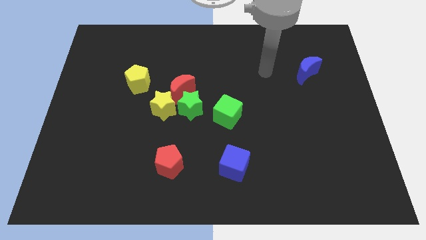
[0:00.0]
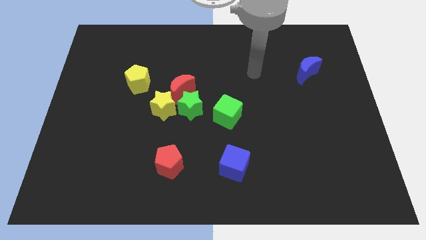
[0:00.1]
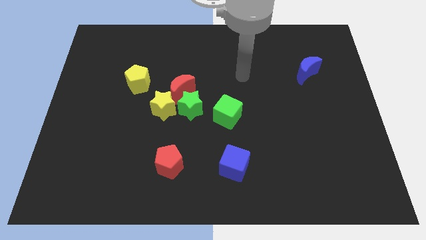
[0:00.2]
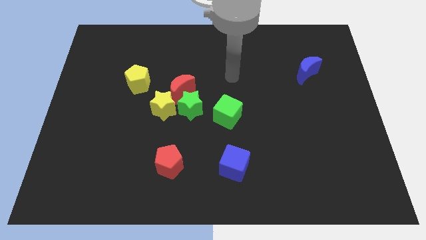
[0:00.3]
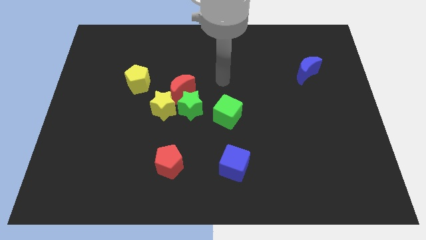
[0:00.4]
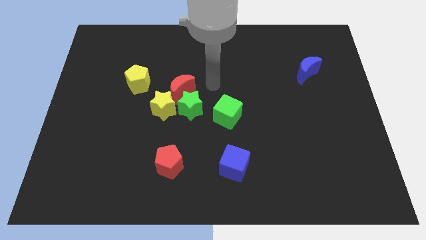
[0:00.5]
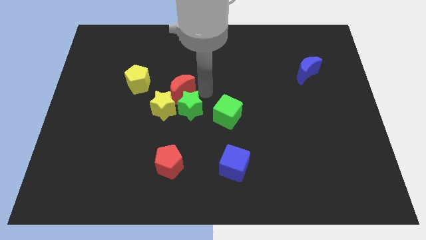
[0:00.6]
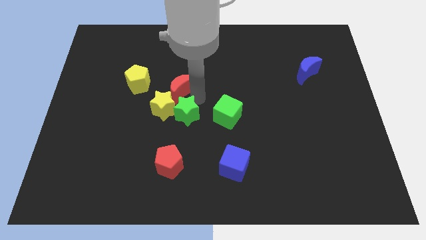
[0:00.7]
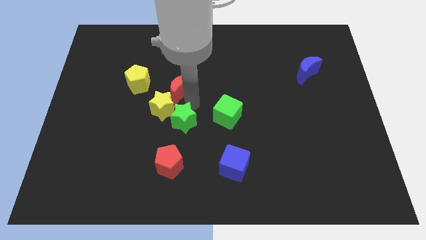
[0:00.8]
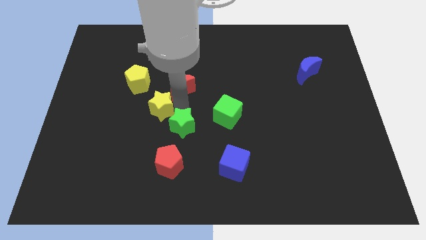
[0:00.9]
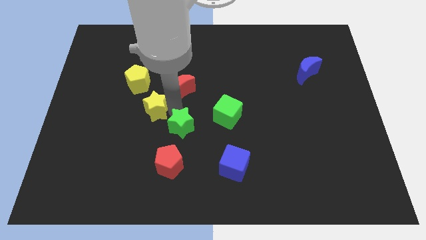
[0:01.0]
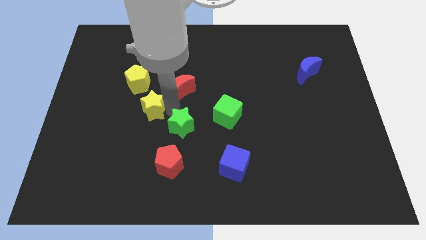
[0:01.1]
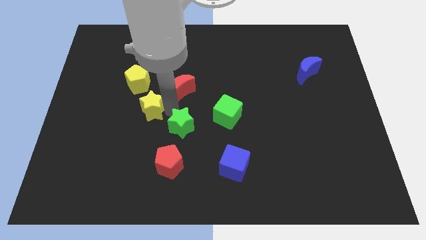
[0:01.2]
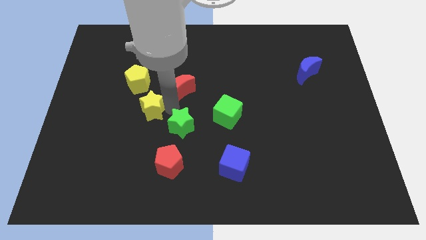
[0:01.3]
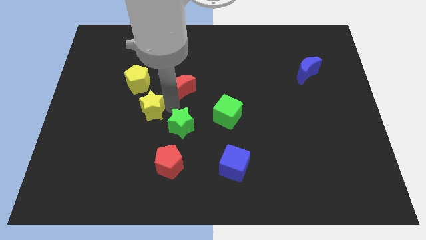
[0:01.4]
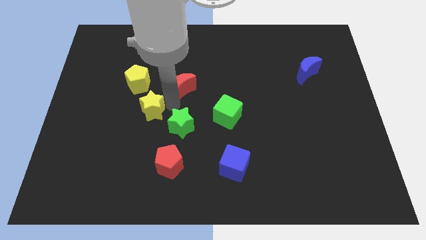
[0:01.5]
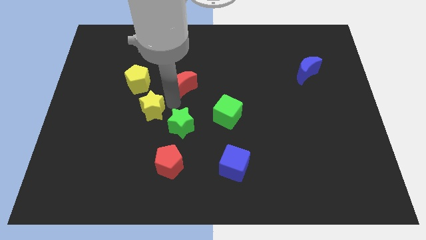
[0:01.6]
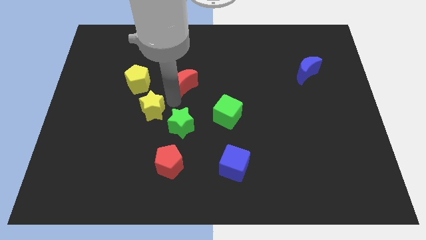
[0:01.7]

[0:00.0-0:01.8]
pull the red moon apart from the green star and yellow star

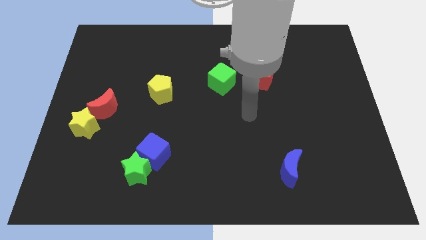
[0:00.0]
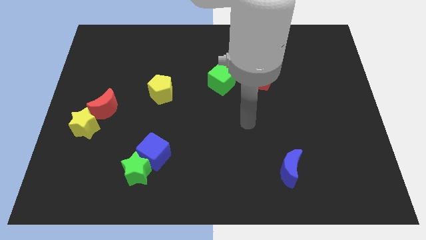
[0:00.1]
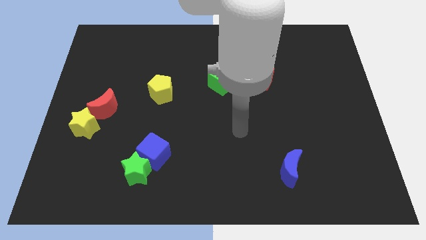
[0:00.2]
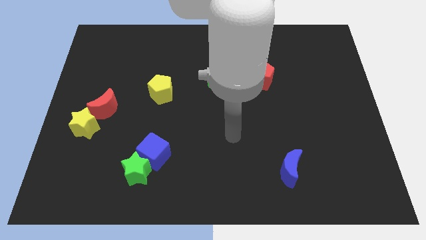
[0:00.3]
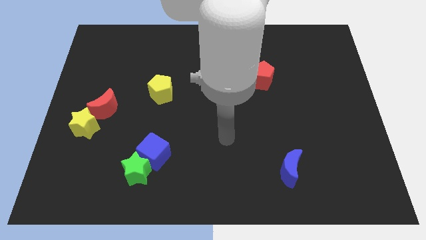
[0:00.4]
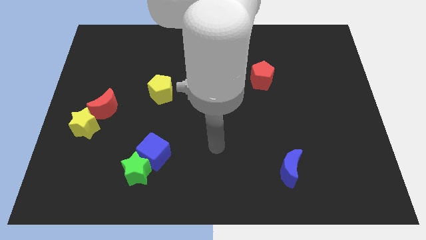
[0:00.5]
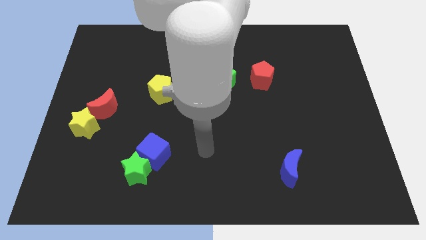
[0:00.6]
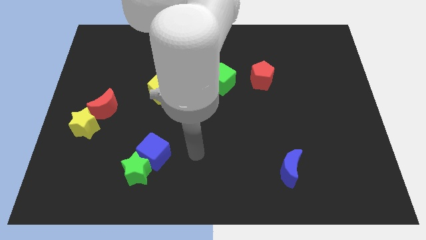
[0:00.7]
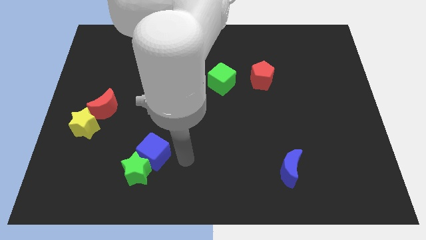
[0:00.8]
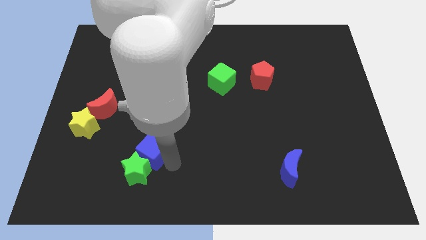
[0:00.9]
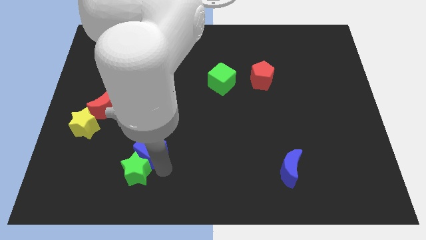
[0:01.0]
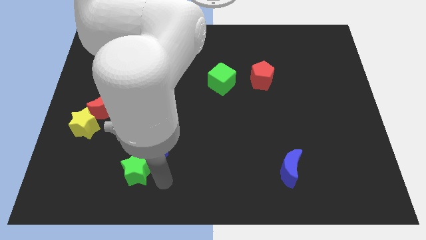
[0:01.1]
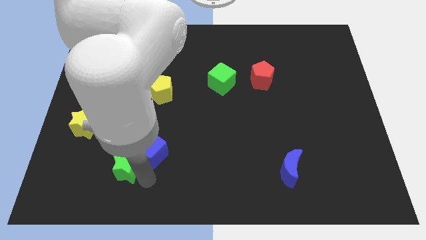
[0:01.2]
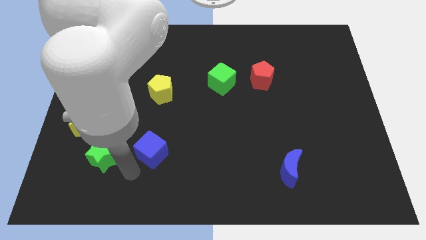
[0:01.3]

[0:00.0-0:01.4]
pull the blue cube apart from the green star

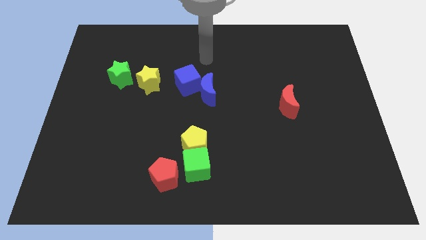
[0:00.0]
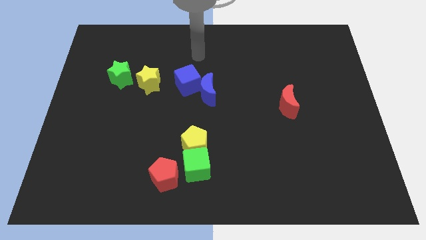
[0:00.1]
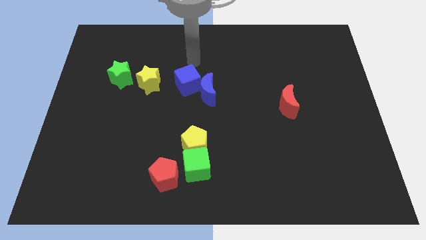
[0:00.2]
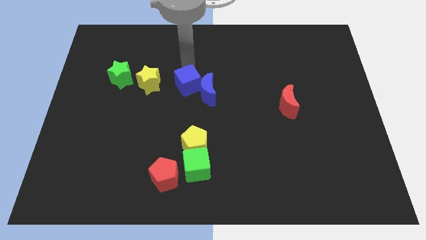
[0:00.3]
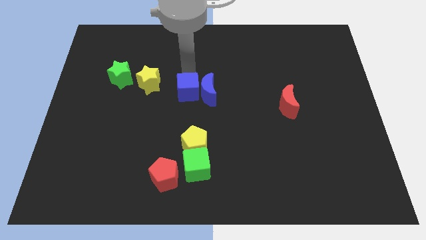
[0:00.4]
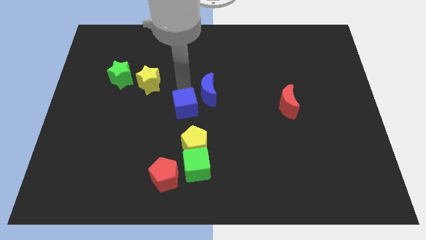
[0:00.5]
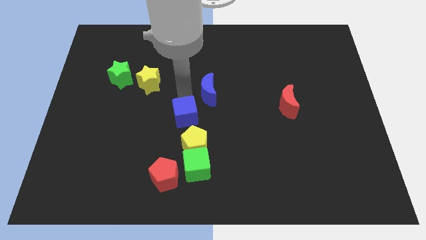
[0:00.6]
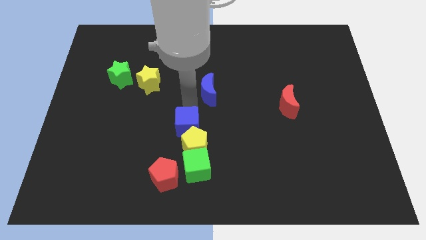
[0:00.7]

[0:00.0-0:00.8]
separate the blue moon from the blue cube

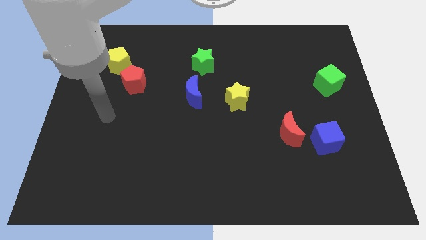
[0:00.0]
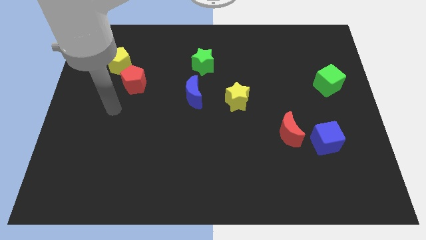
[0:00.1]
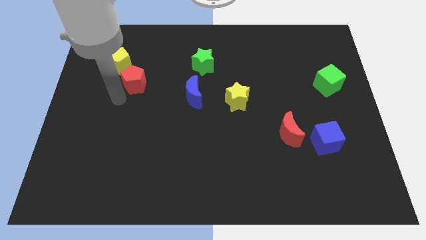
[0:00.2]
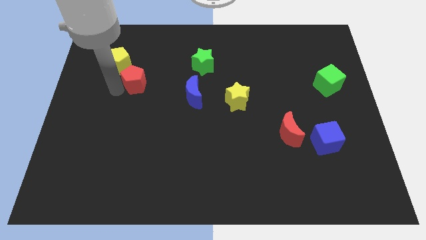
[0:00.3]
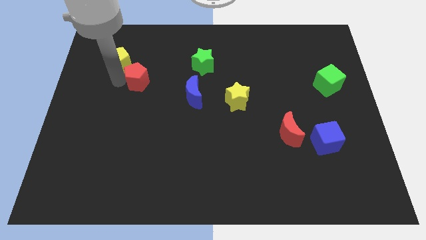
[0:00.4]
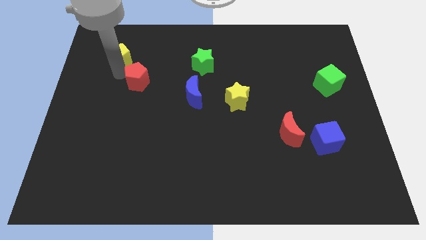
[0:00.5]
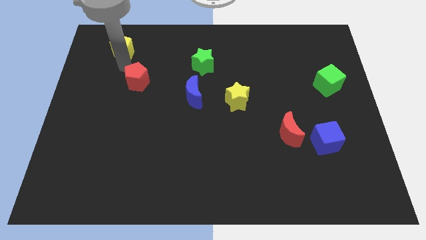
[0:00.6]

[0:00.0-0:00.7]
separate the red pentagon from the yellow pentagon

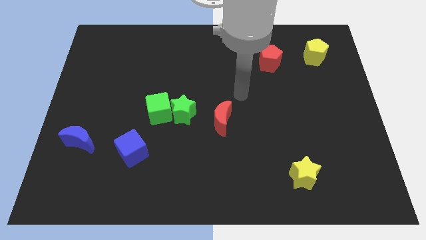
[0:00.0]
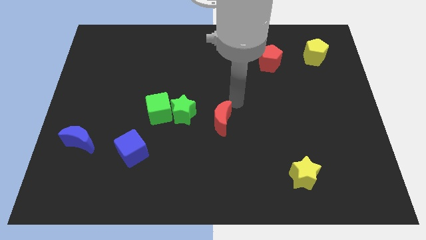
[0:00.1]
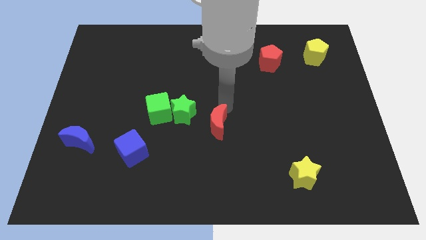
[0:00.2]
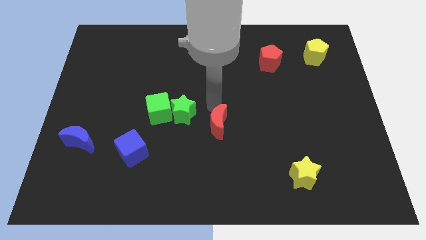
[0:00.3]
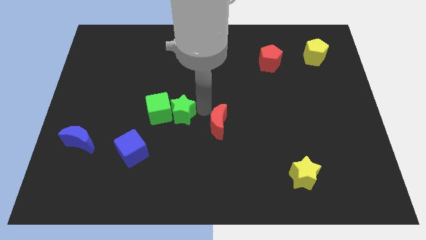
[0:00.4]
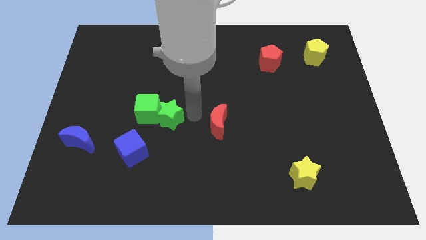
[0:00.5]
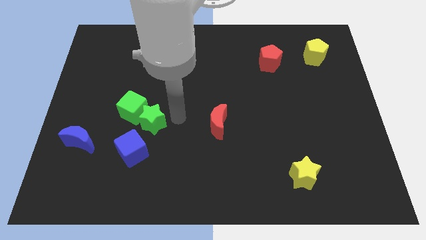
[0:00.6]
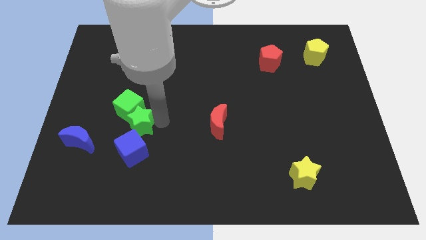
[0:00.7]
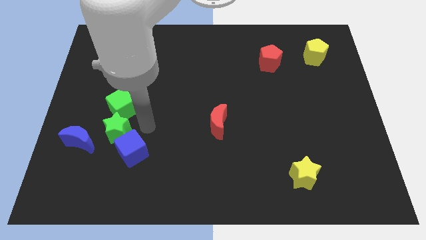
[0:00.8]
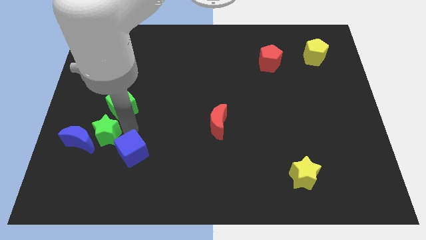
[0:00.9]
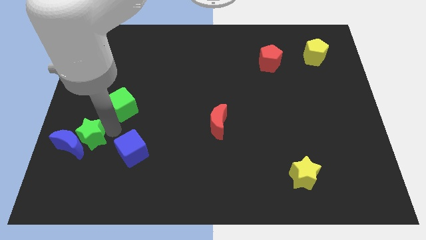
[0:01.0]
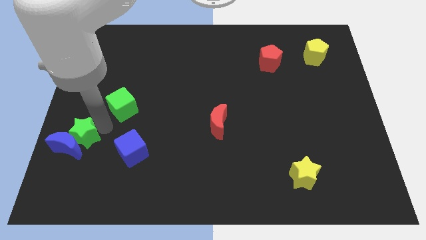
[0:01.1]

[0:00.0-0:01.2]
separate the green cube from the green star

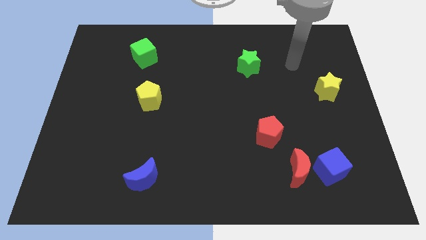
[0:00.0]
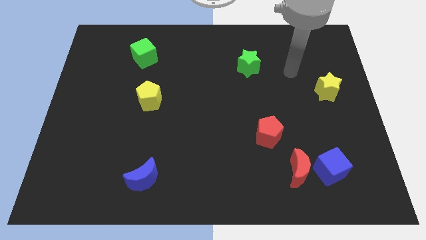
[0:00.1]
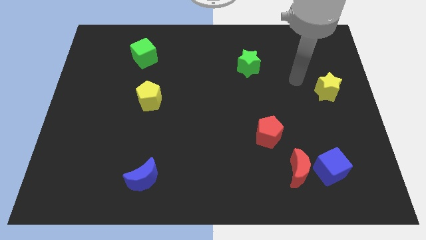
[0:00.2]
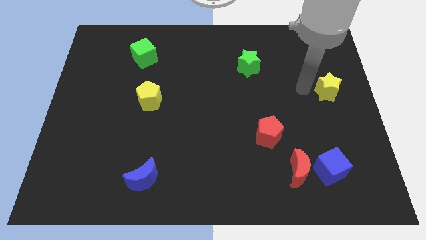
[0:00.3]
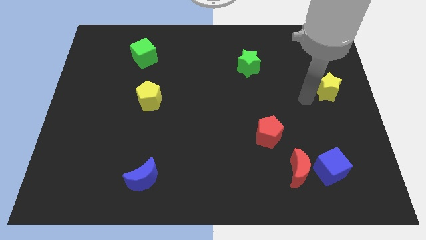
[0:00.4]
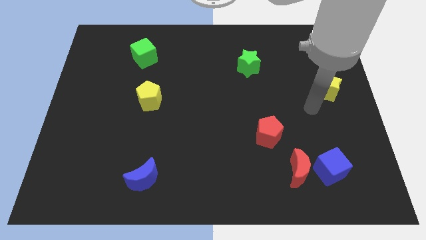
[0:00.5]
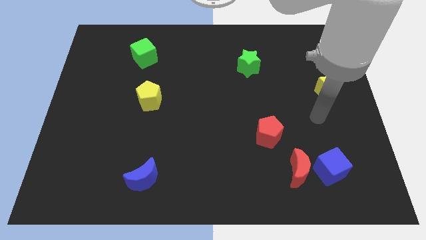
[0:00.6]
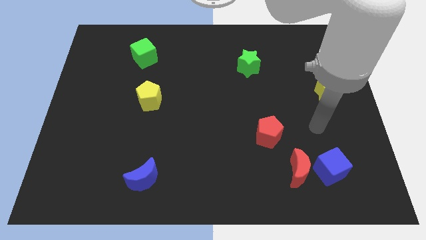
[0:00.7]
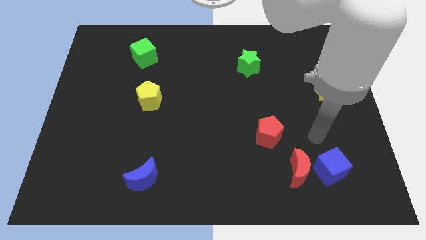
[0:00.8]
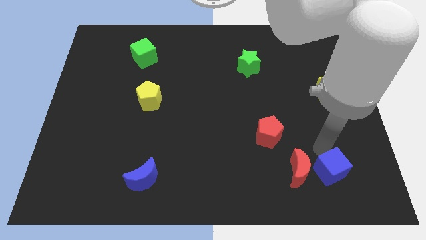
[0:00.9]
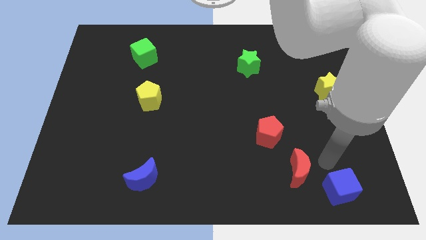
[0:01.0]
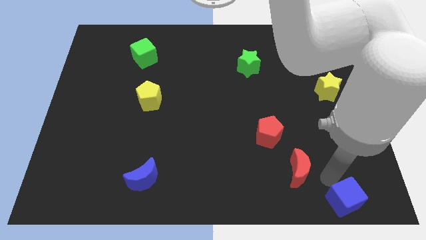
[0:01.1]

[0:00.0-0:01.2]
pull the red moon apart from the blue cube

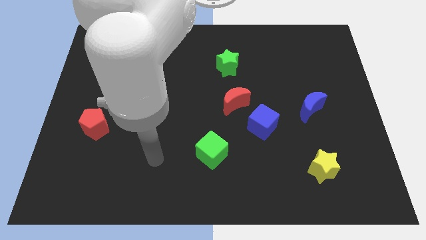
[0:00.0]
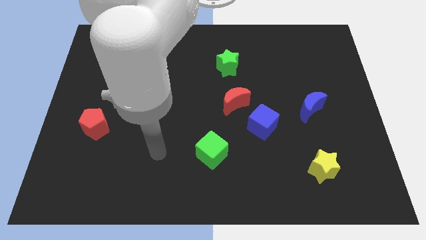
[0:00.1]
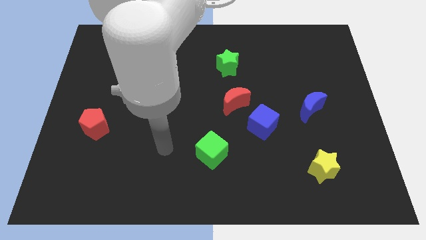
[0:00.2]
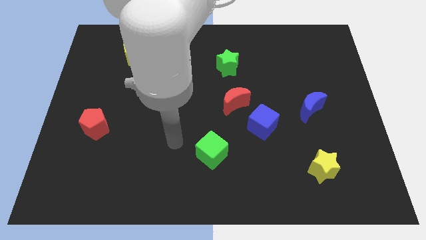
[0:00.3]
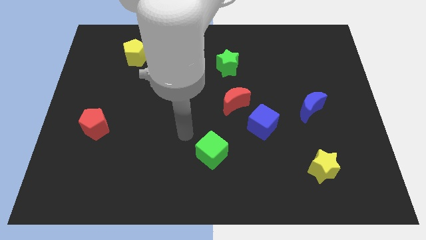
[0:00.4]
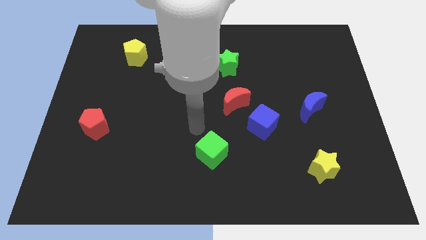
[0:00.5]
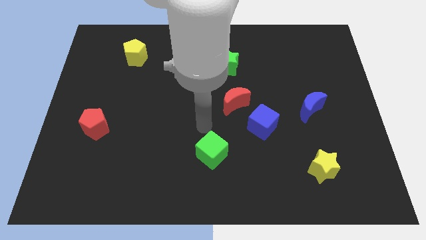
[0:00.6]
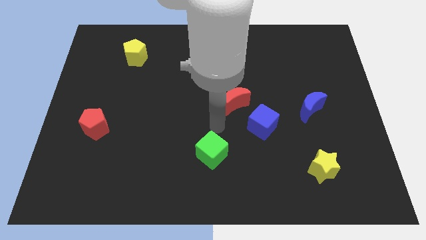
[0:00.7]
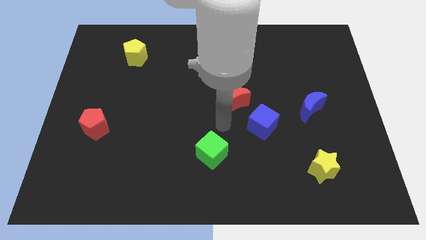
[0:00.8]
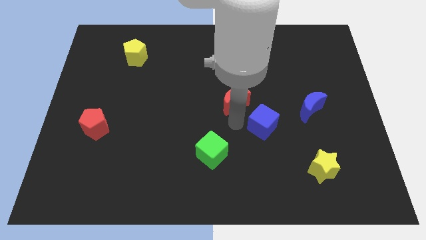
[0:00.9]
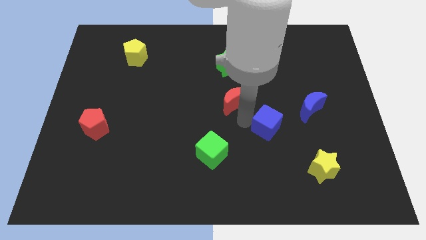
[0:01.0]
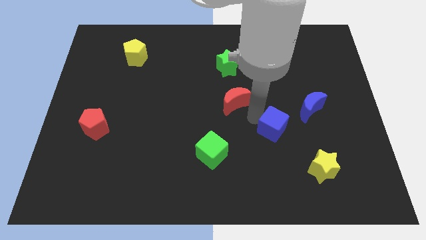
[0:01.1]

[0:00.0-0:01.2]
separate the red moon from the blue cube

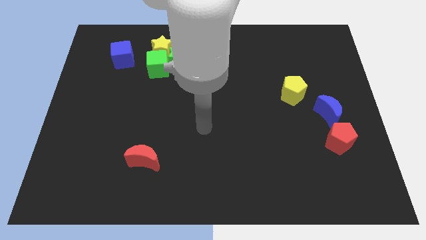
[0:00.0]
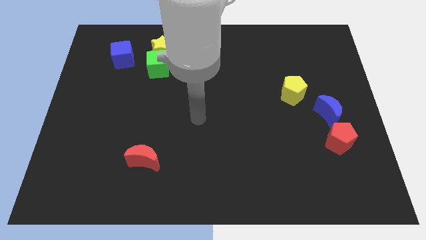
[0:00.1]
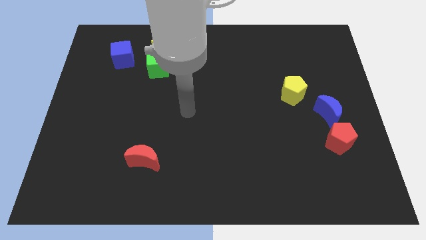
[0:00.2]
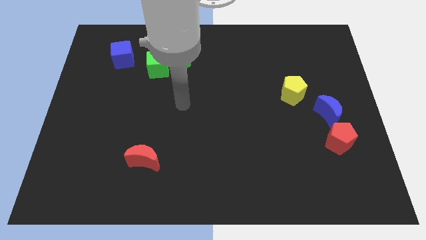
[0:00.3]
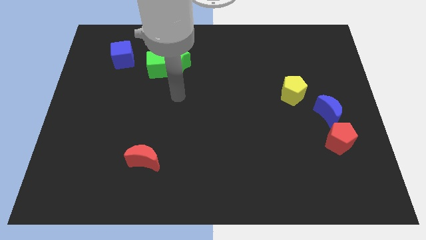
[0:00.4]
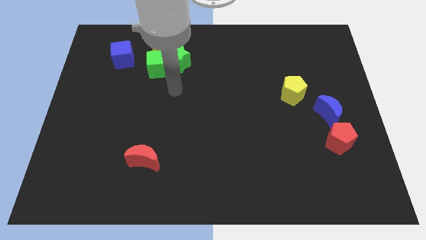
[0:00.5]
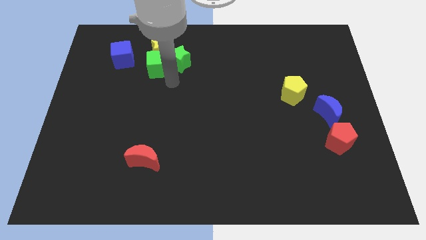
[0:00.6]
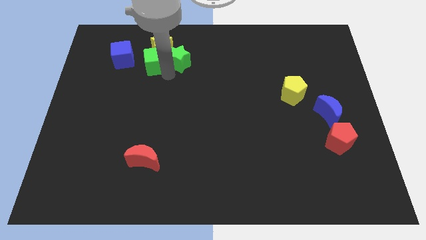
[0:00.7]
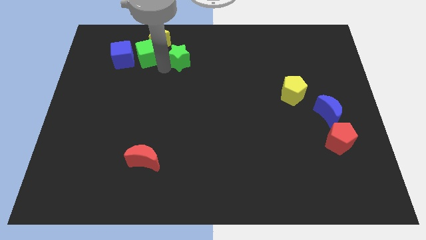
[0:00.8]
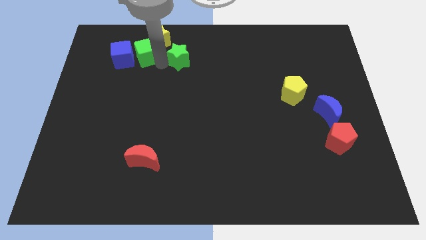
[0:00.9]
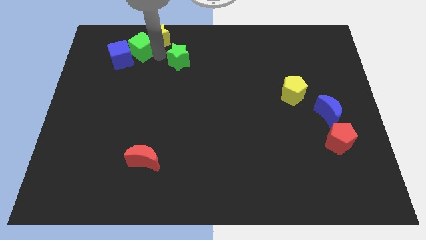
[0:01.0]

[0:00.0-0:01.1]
move the green star away from the green cube and yellow star
